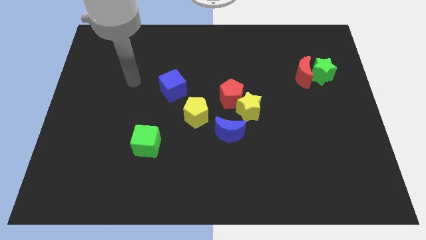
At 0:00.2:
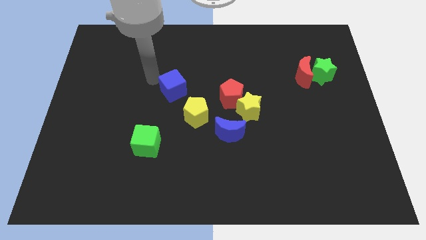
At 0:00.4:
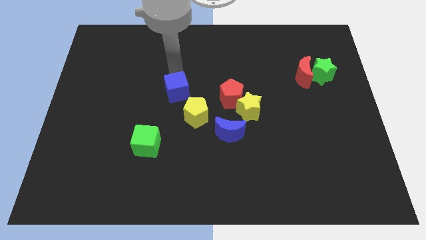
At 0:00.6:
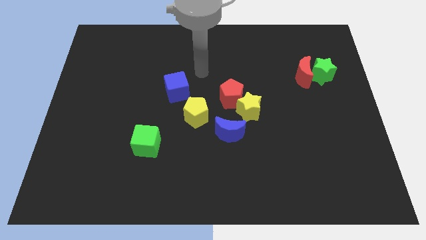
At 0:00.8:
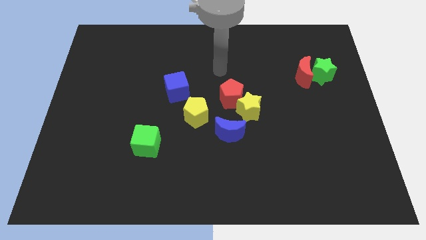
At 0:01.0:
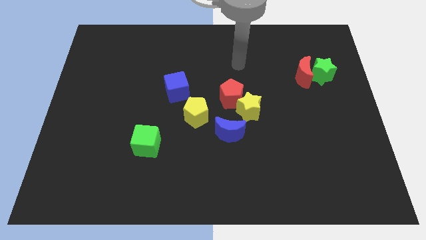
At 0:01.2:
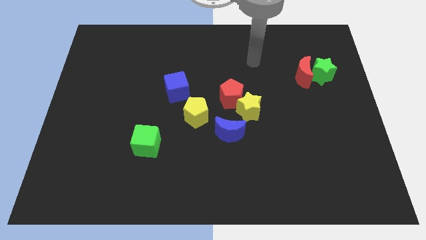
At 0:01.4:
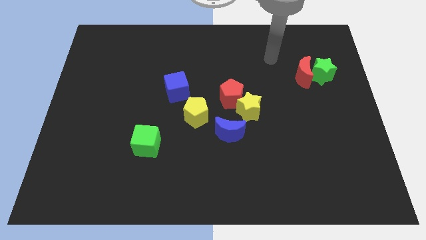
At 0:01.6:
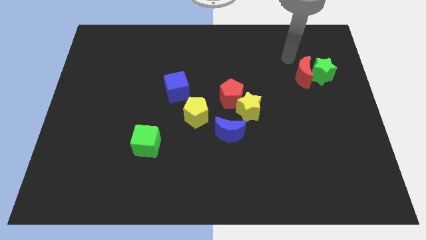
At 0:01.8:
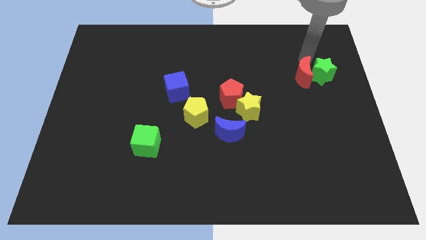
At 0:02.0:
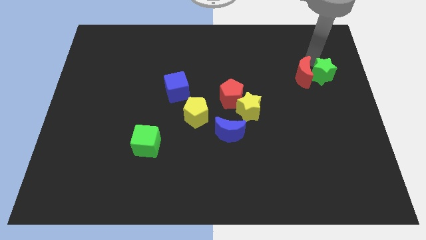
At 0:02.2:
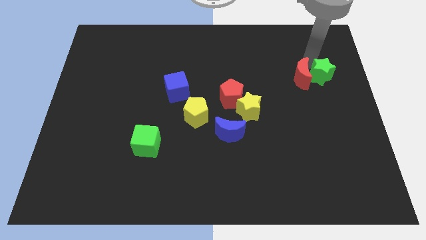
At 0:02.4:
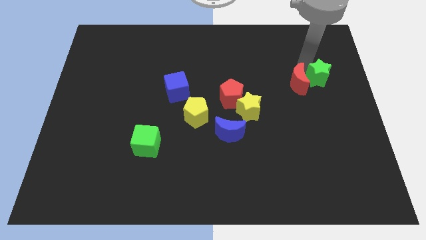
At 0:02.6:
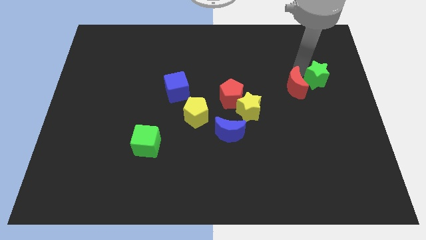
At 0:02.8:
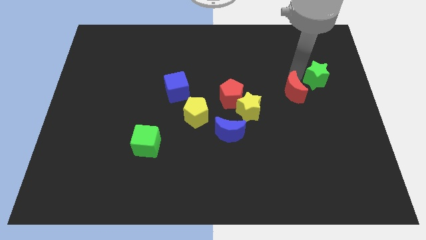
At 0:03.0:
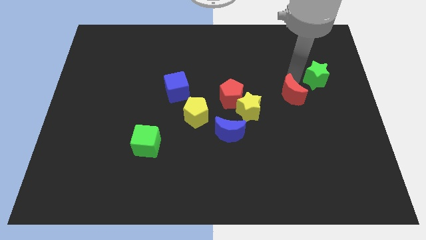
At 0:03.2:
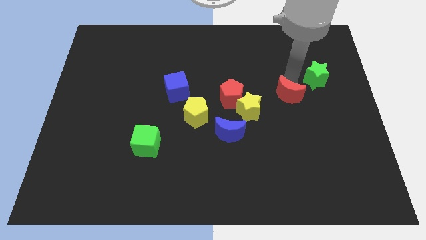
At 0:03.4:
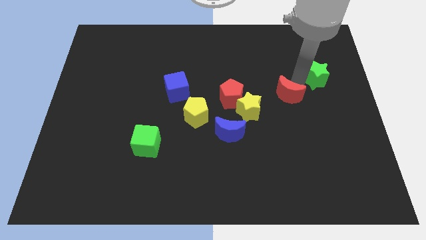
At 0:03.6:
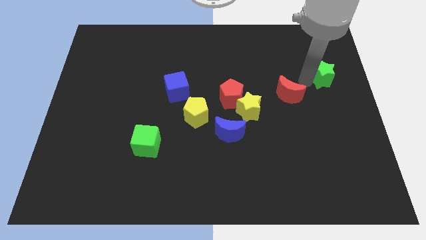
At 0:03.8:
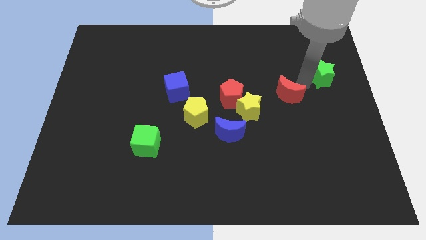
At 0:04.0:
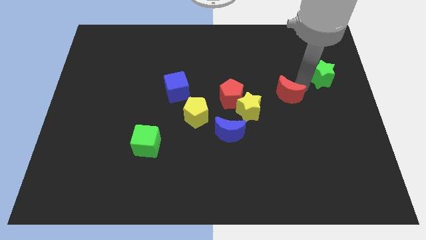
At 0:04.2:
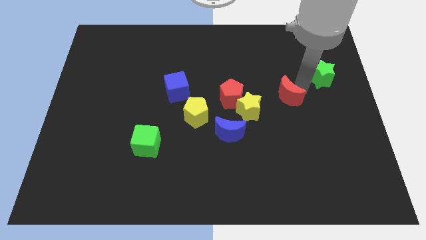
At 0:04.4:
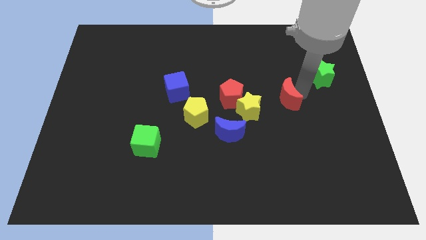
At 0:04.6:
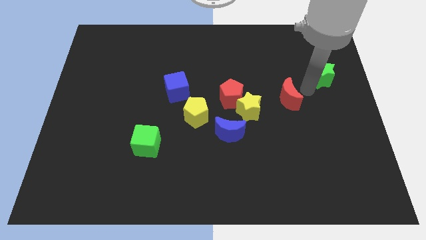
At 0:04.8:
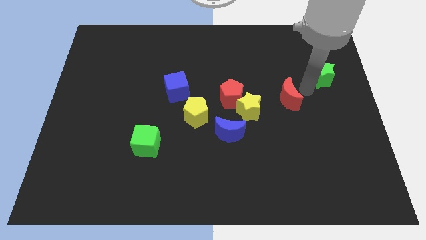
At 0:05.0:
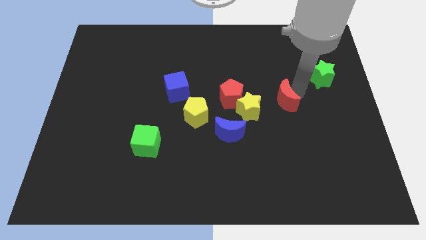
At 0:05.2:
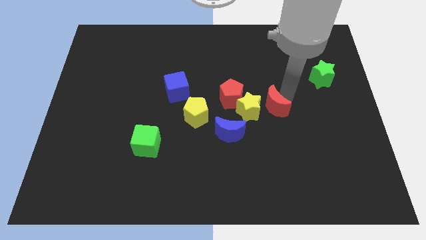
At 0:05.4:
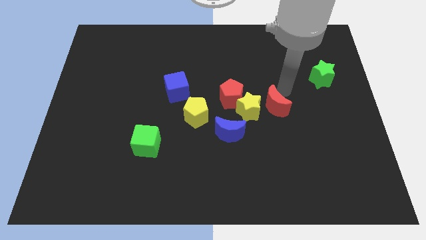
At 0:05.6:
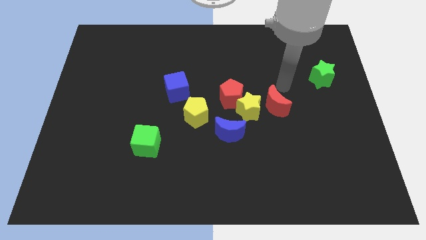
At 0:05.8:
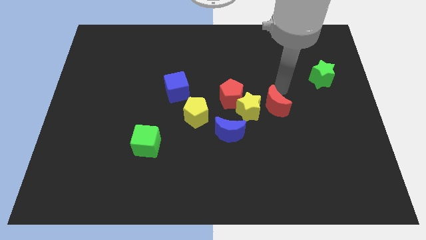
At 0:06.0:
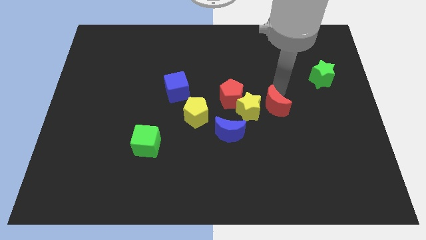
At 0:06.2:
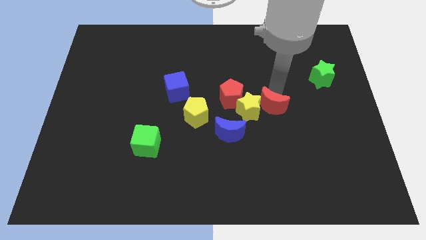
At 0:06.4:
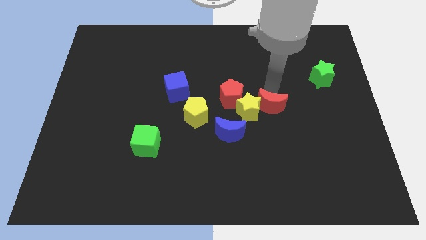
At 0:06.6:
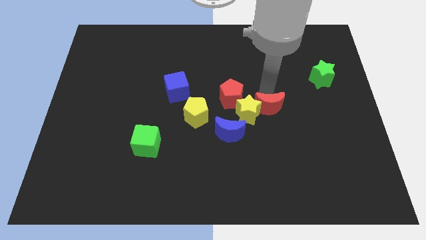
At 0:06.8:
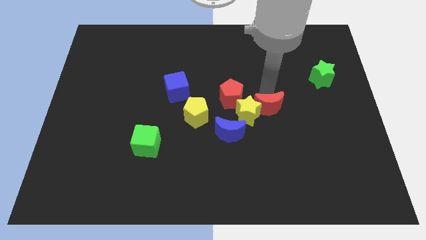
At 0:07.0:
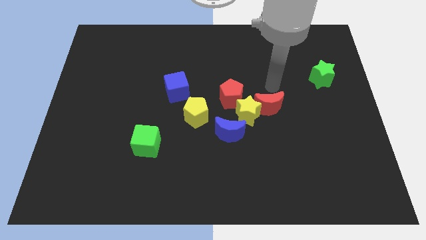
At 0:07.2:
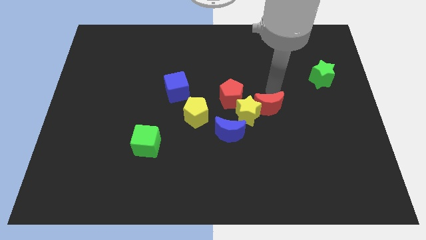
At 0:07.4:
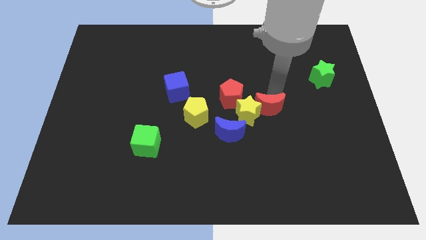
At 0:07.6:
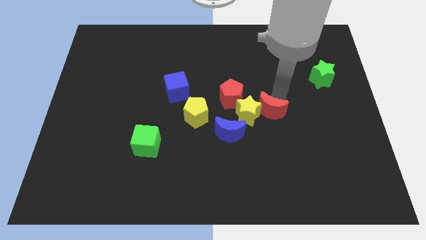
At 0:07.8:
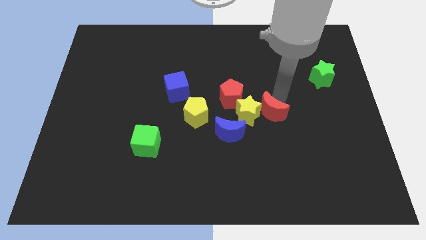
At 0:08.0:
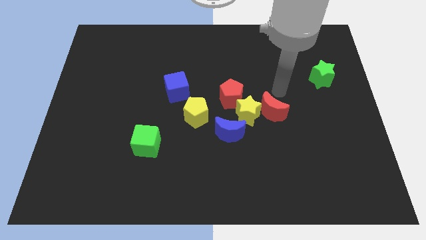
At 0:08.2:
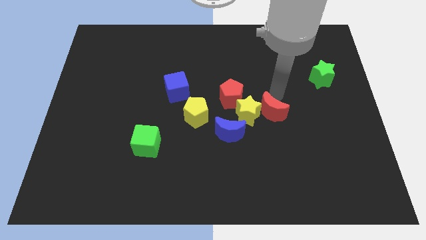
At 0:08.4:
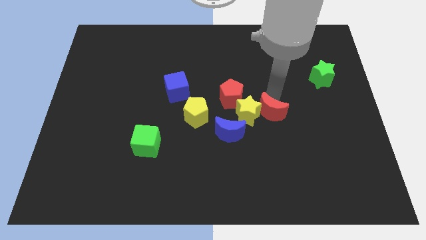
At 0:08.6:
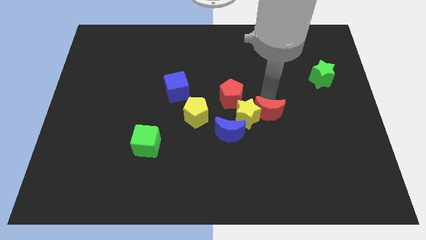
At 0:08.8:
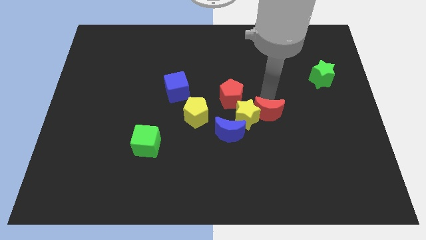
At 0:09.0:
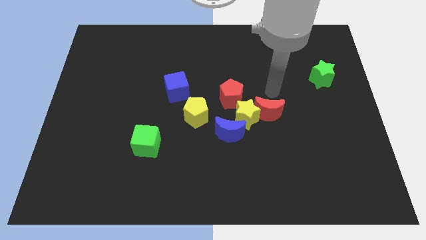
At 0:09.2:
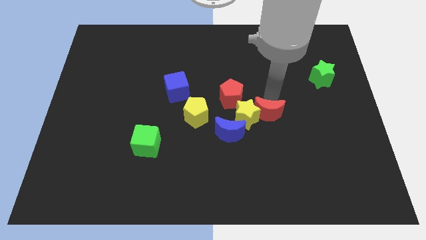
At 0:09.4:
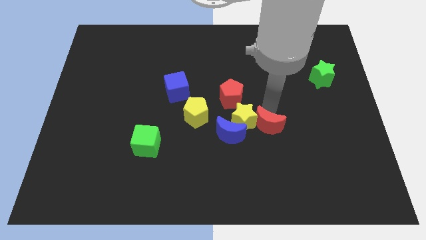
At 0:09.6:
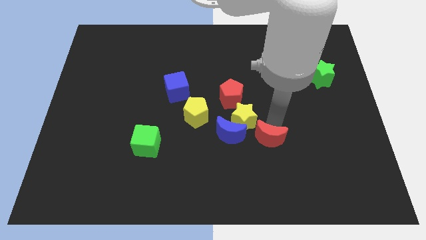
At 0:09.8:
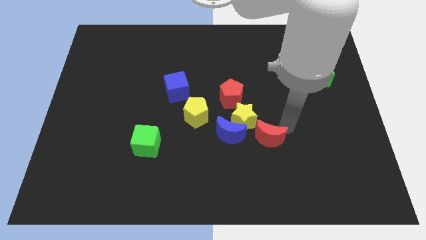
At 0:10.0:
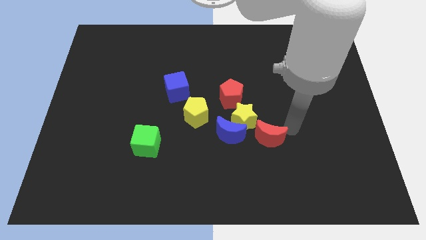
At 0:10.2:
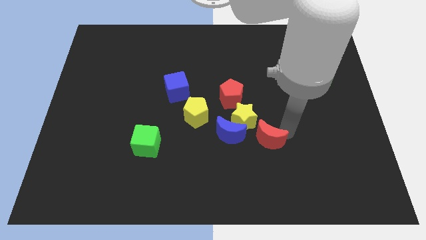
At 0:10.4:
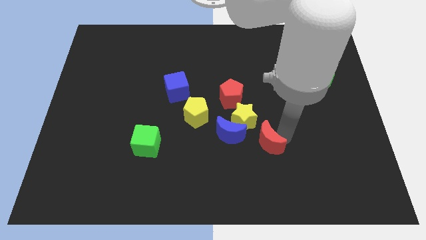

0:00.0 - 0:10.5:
push the red moon diagonally down and left

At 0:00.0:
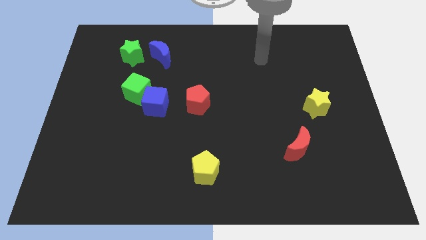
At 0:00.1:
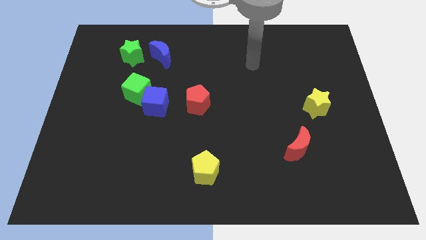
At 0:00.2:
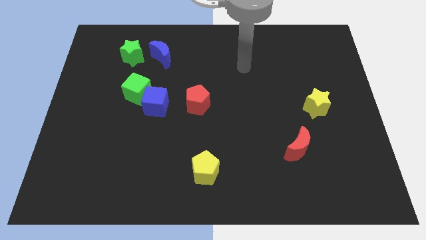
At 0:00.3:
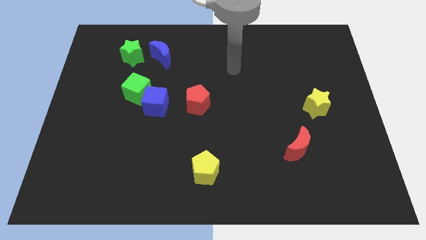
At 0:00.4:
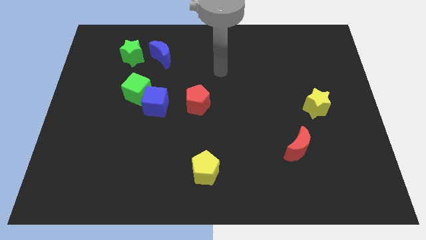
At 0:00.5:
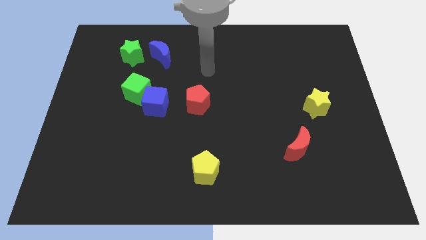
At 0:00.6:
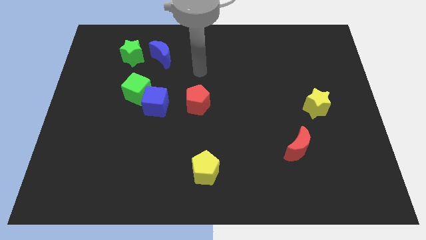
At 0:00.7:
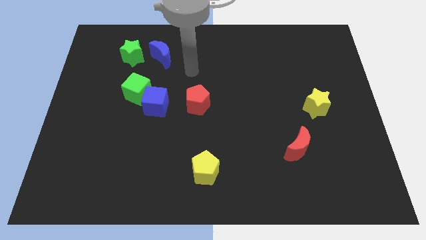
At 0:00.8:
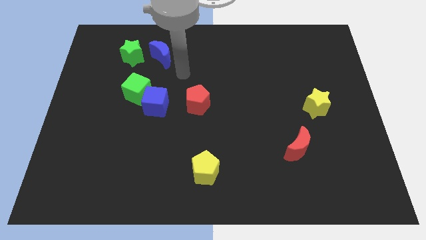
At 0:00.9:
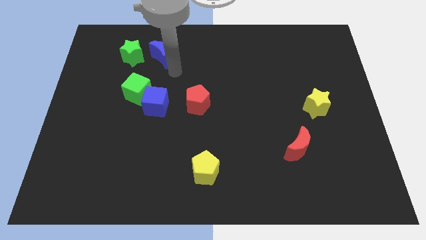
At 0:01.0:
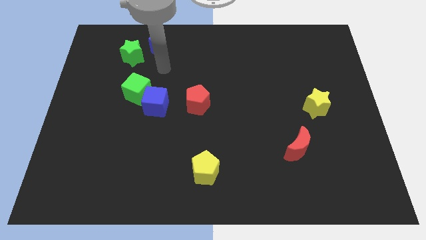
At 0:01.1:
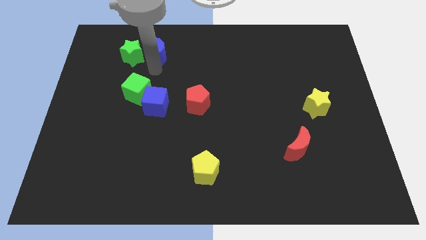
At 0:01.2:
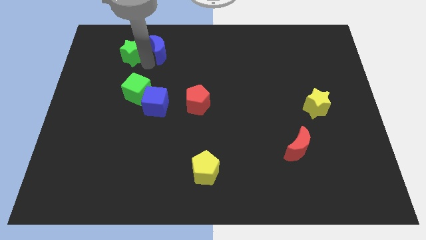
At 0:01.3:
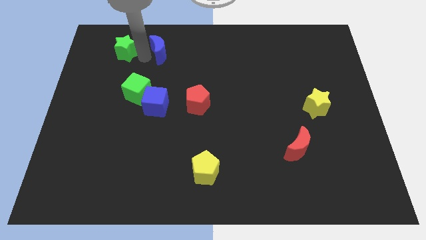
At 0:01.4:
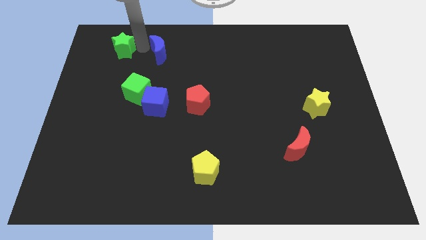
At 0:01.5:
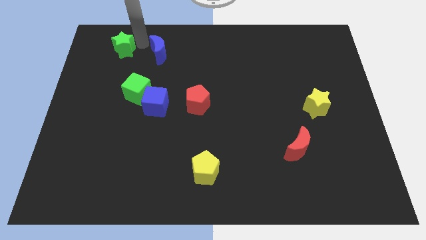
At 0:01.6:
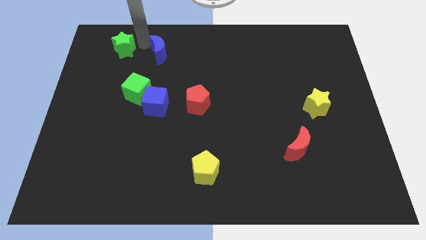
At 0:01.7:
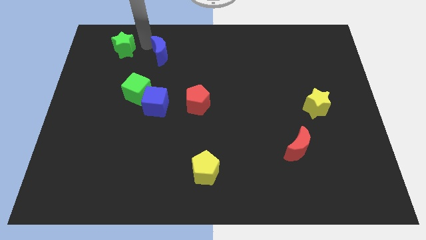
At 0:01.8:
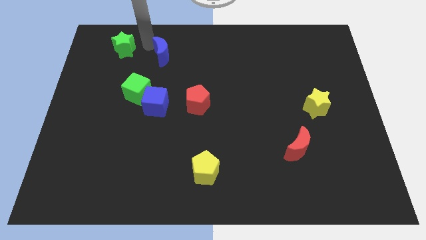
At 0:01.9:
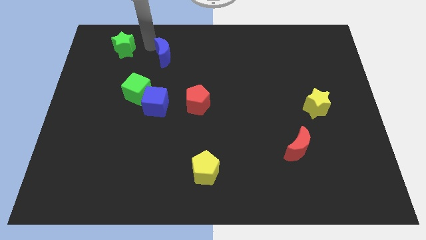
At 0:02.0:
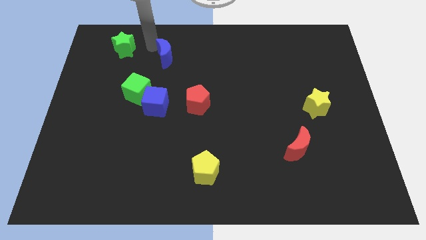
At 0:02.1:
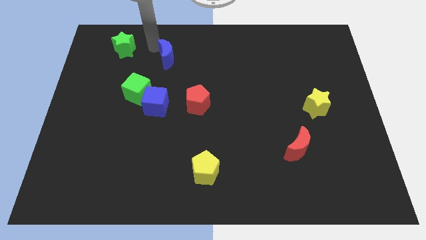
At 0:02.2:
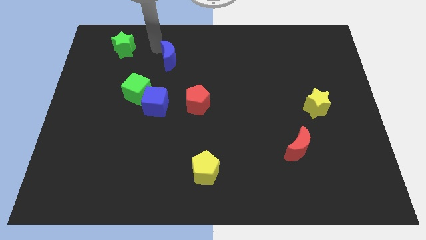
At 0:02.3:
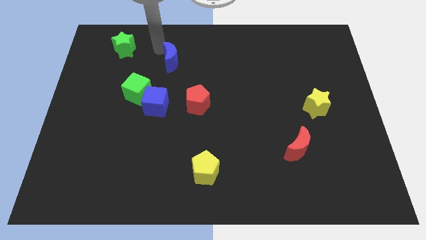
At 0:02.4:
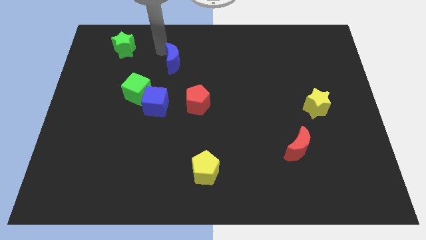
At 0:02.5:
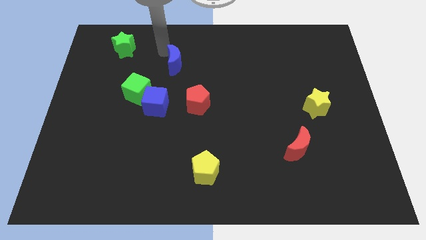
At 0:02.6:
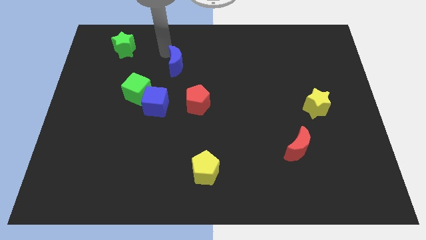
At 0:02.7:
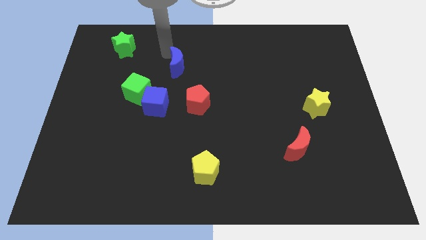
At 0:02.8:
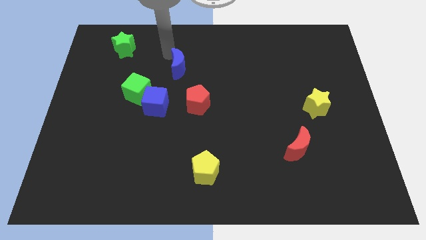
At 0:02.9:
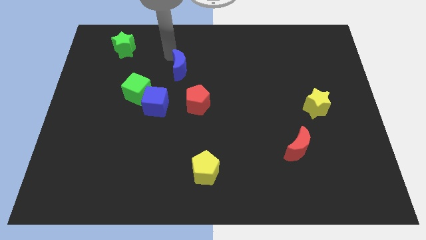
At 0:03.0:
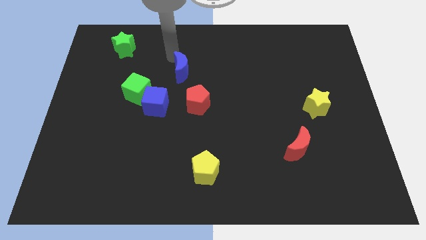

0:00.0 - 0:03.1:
push the blue moon a little bit downwards and to the right
